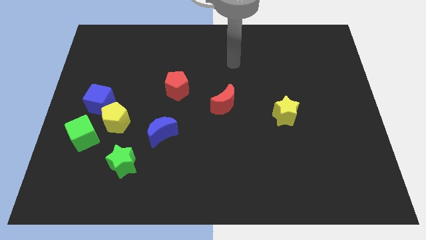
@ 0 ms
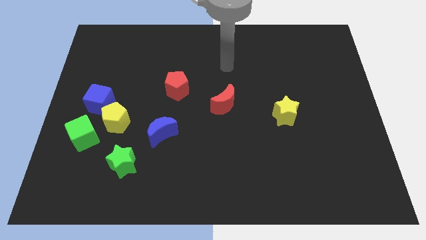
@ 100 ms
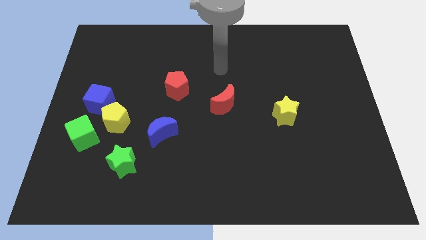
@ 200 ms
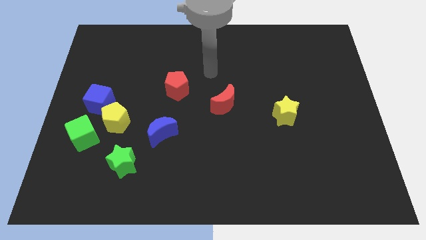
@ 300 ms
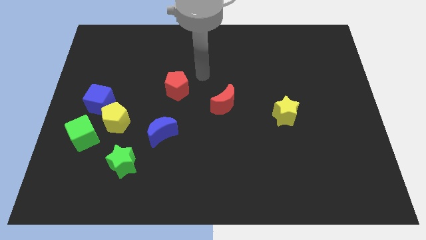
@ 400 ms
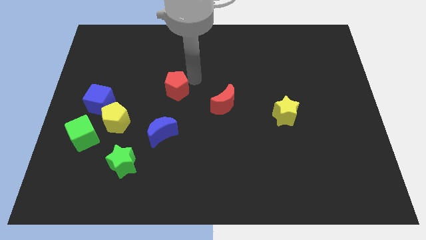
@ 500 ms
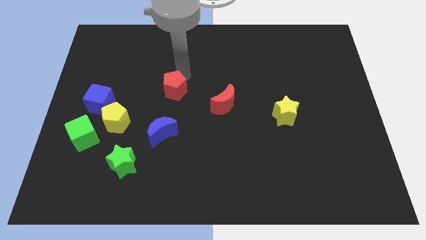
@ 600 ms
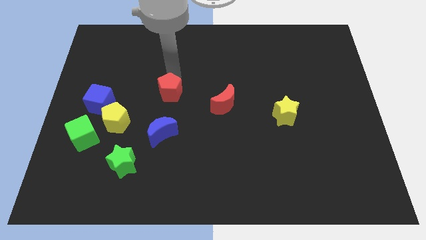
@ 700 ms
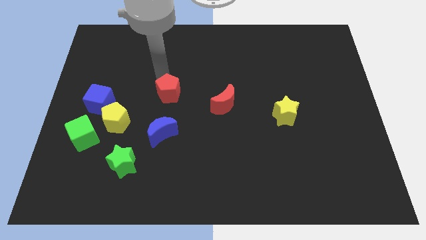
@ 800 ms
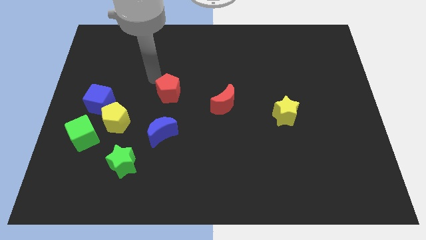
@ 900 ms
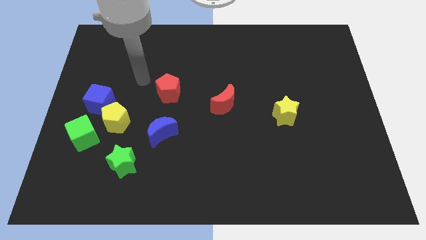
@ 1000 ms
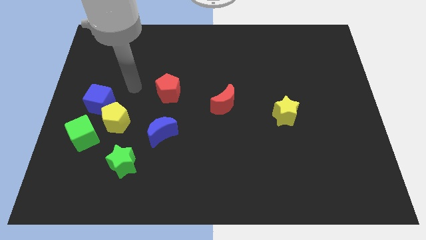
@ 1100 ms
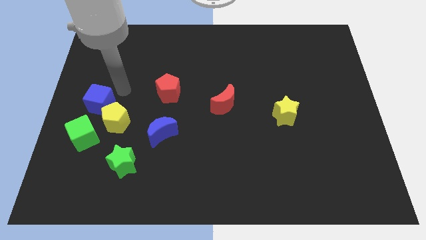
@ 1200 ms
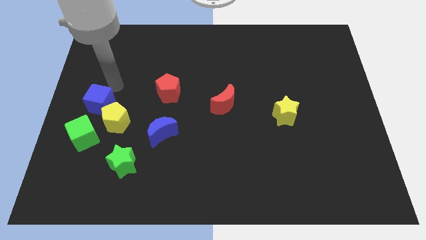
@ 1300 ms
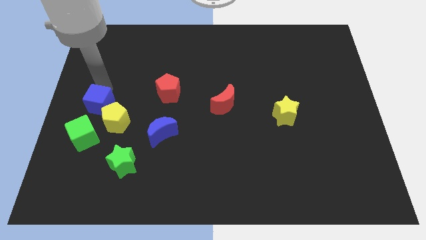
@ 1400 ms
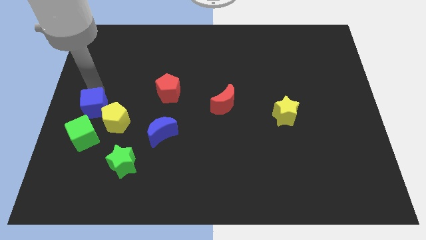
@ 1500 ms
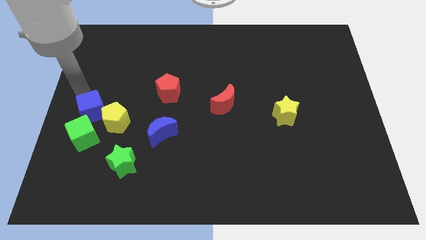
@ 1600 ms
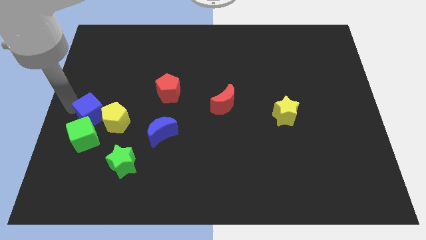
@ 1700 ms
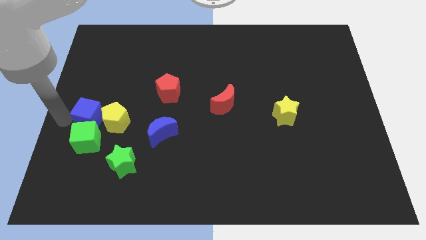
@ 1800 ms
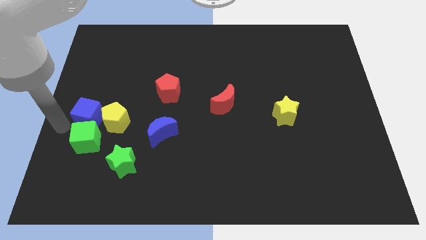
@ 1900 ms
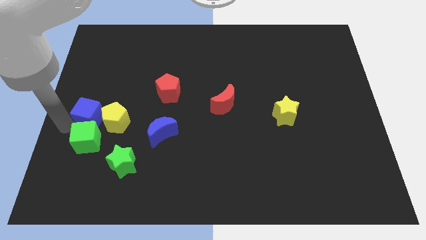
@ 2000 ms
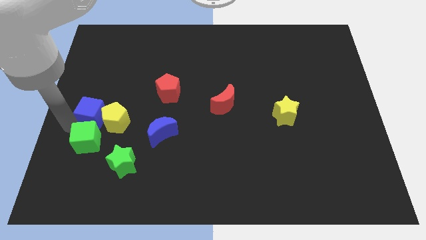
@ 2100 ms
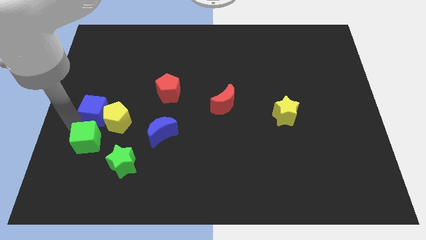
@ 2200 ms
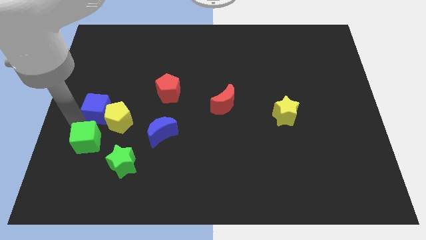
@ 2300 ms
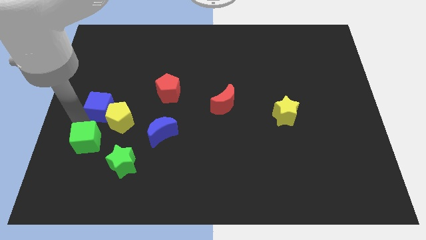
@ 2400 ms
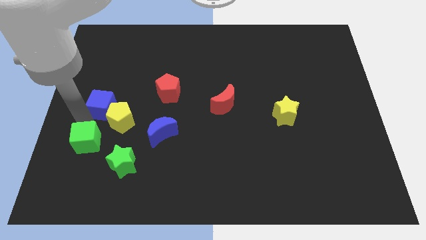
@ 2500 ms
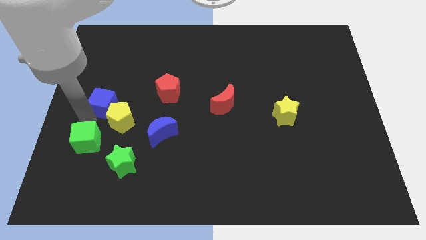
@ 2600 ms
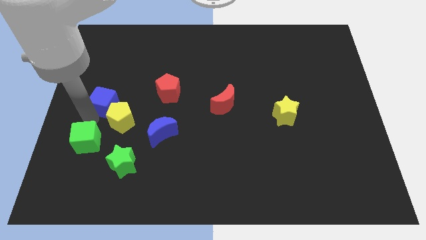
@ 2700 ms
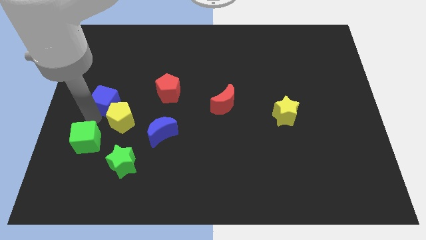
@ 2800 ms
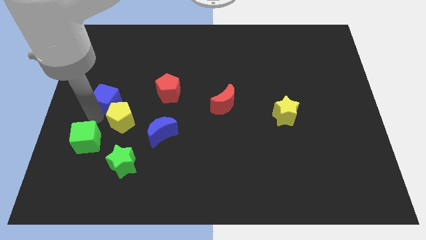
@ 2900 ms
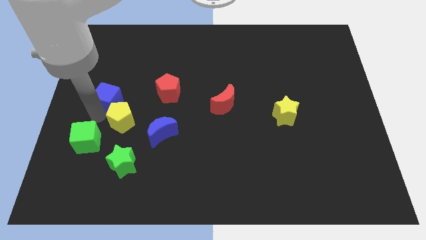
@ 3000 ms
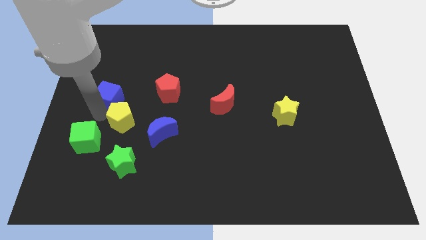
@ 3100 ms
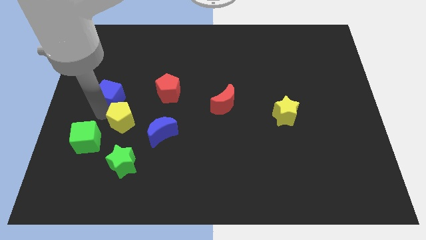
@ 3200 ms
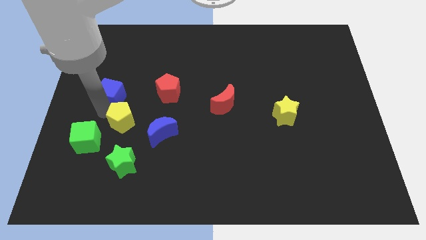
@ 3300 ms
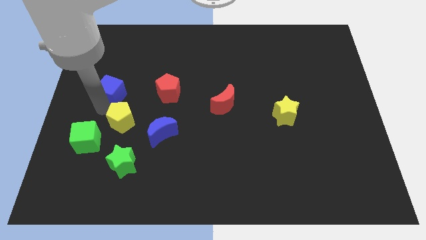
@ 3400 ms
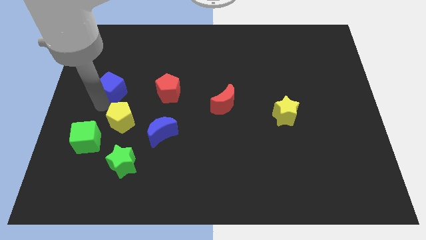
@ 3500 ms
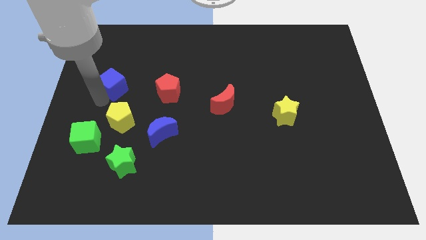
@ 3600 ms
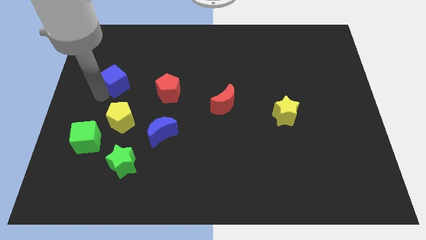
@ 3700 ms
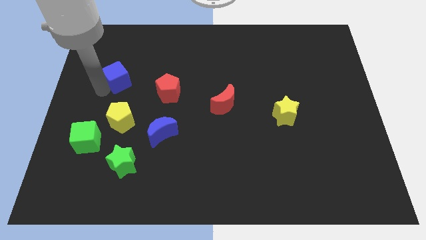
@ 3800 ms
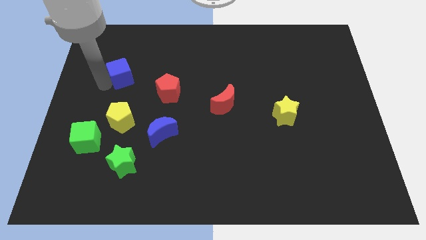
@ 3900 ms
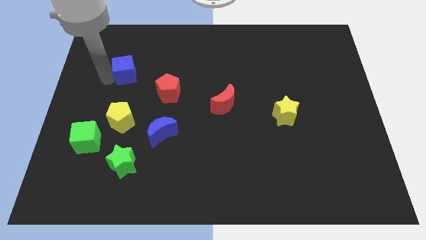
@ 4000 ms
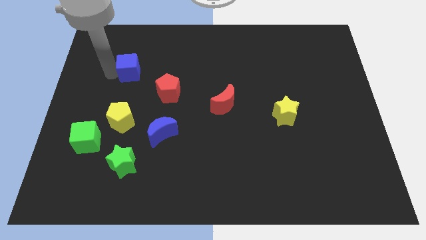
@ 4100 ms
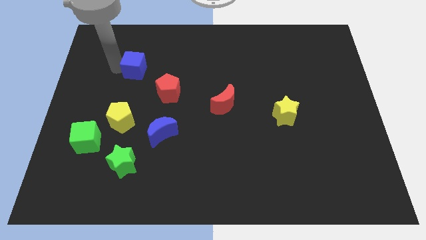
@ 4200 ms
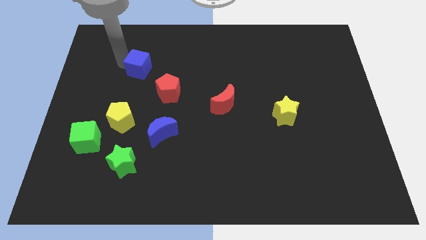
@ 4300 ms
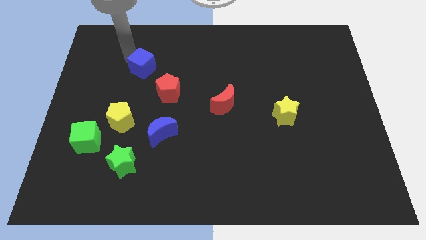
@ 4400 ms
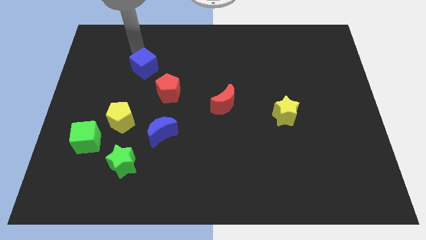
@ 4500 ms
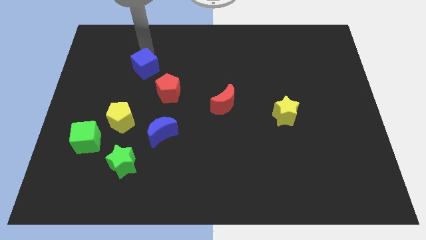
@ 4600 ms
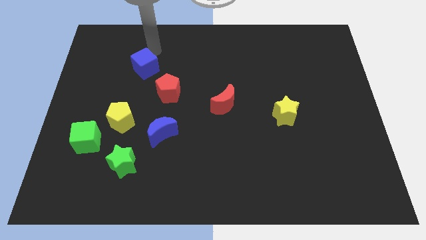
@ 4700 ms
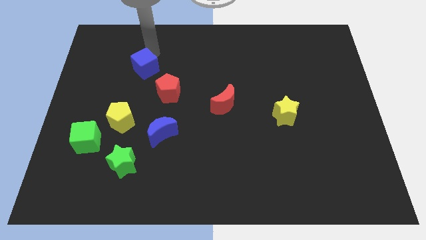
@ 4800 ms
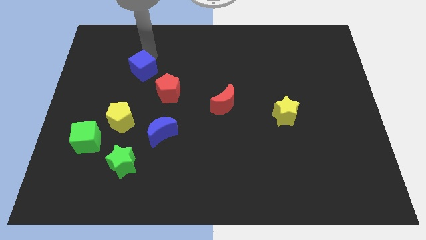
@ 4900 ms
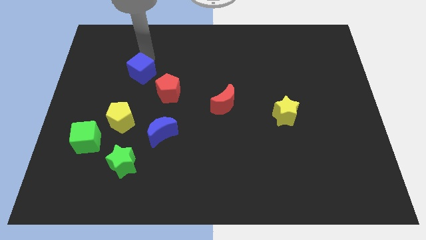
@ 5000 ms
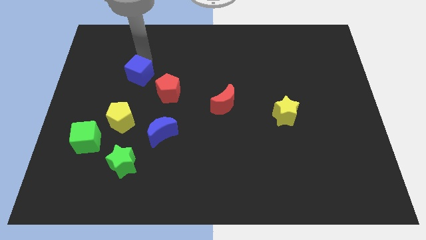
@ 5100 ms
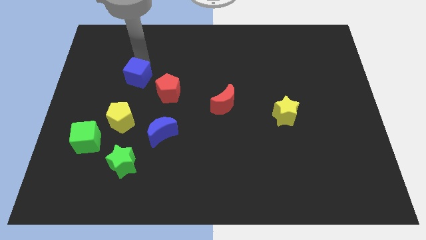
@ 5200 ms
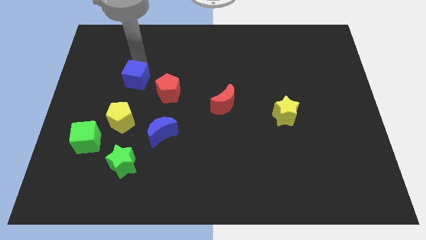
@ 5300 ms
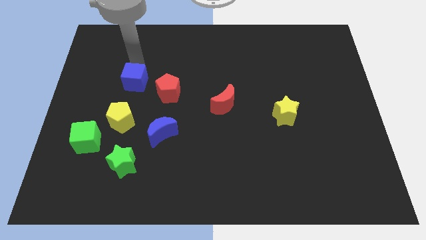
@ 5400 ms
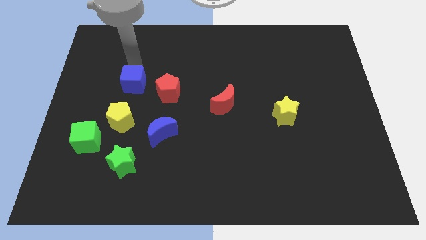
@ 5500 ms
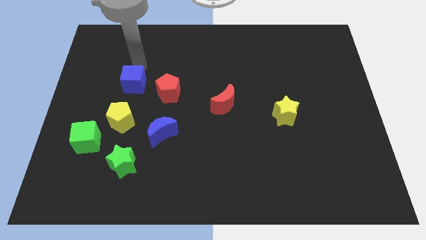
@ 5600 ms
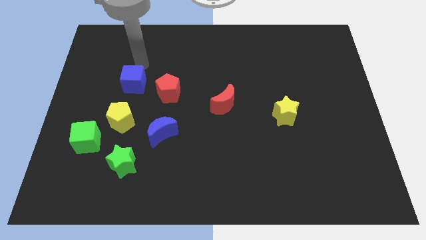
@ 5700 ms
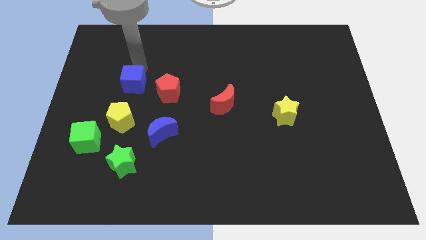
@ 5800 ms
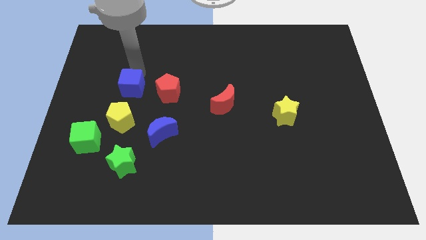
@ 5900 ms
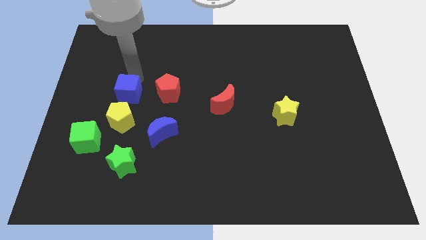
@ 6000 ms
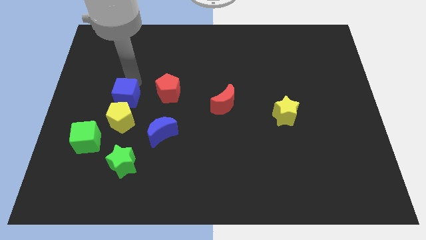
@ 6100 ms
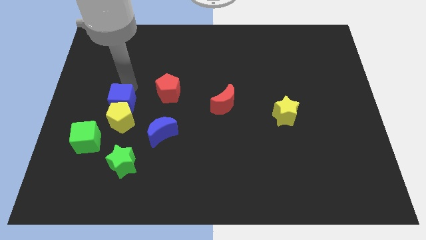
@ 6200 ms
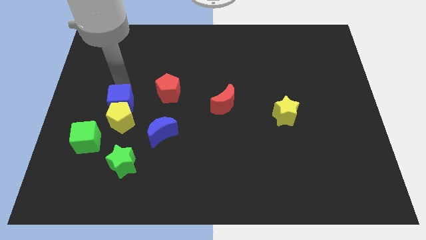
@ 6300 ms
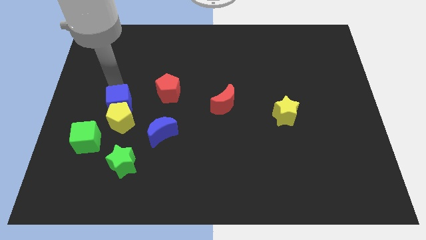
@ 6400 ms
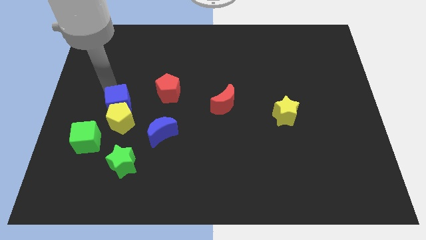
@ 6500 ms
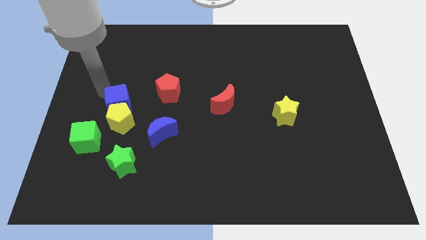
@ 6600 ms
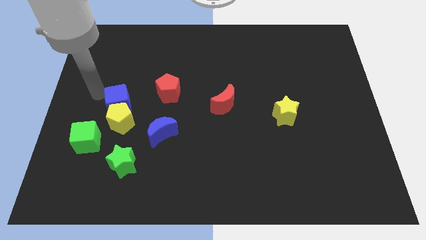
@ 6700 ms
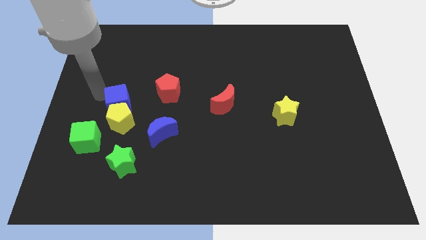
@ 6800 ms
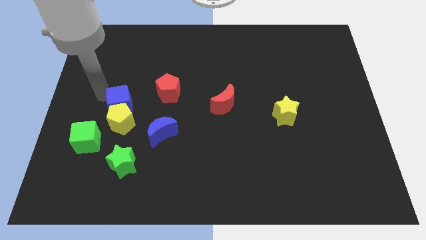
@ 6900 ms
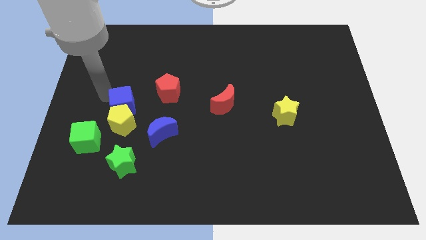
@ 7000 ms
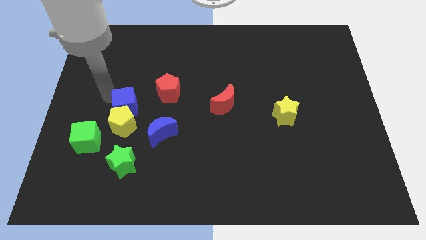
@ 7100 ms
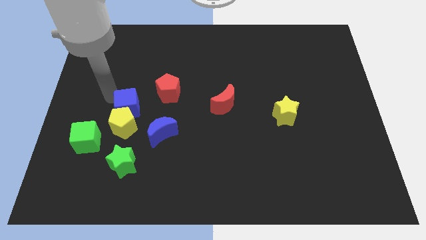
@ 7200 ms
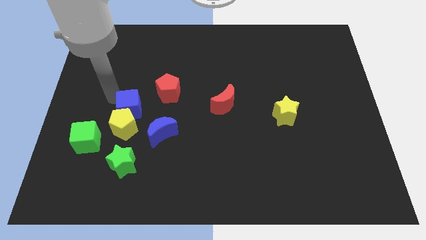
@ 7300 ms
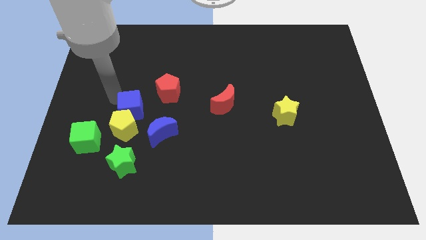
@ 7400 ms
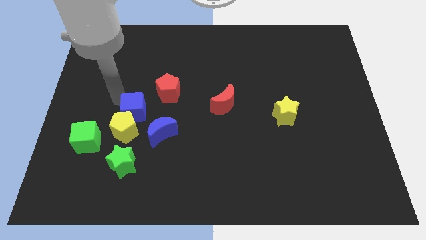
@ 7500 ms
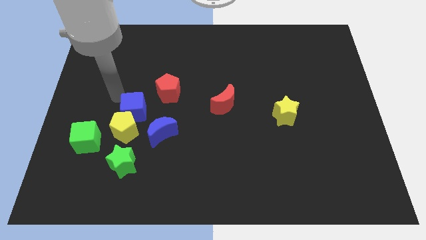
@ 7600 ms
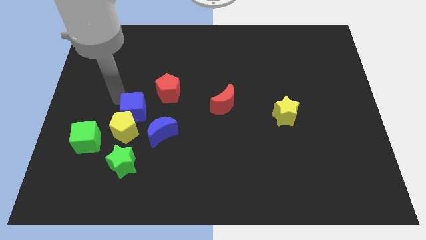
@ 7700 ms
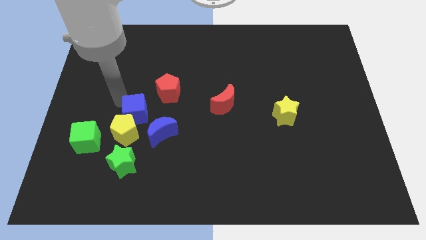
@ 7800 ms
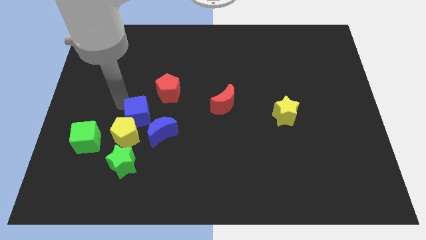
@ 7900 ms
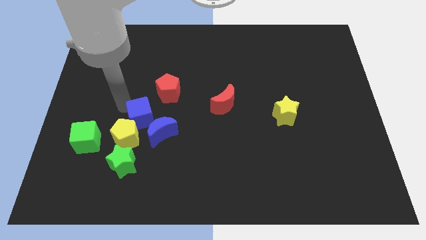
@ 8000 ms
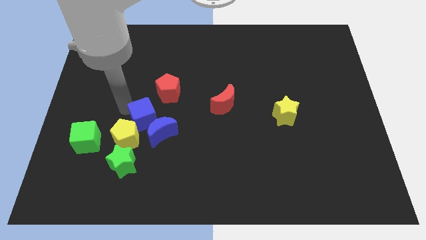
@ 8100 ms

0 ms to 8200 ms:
slide the blue cube close to the blue moon
